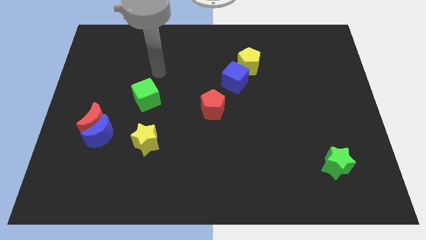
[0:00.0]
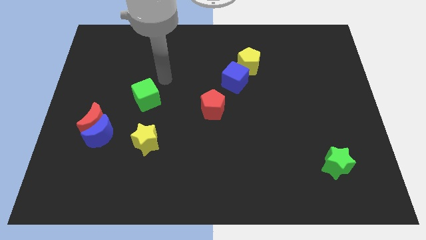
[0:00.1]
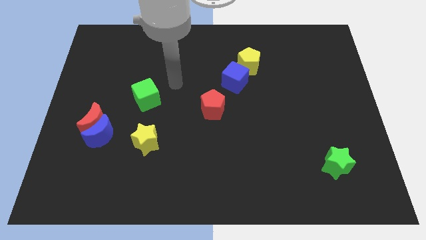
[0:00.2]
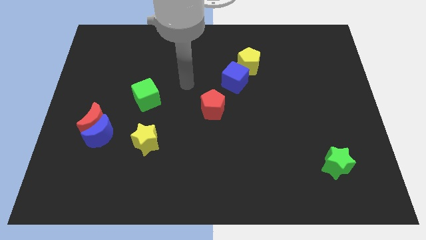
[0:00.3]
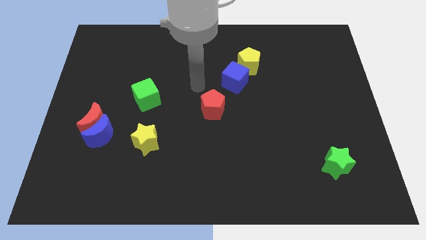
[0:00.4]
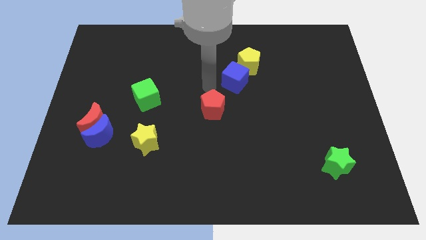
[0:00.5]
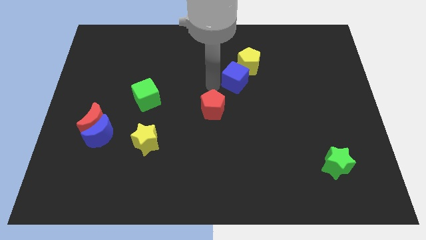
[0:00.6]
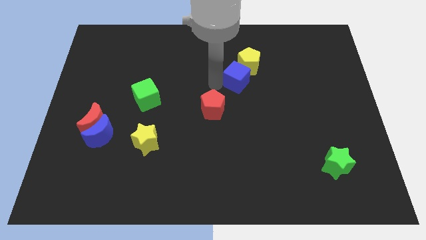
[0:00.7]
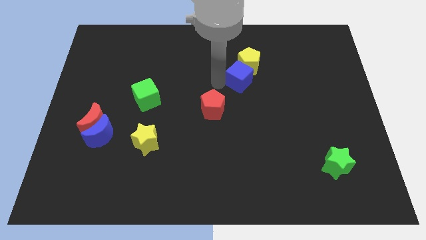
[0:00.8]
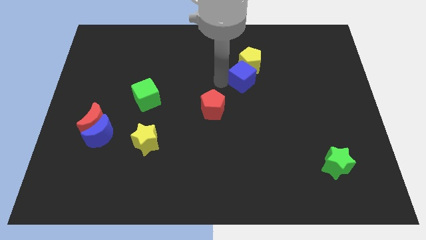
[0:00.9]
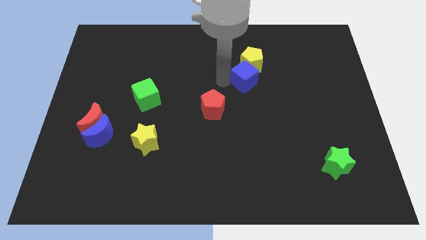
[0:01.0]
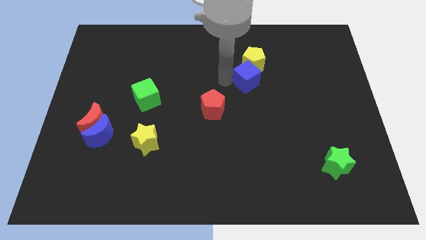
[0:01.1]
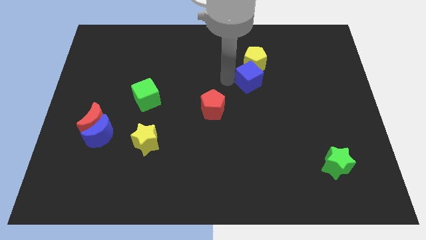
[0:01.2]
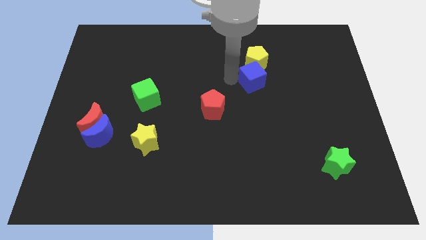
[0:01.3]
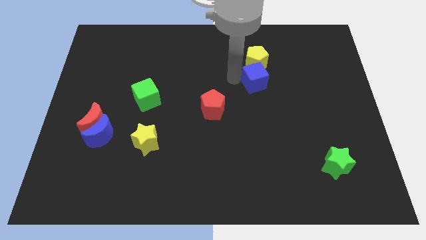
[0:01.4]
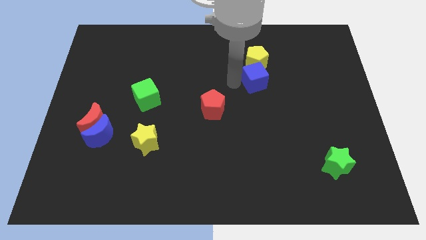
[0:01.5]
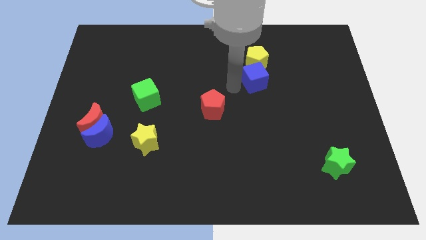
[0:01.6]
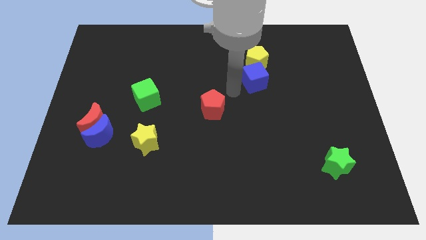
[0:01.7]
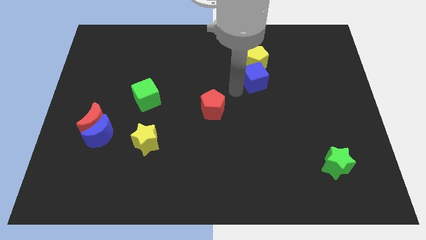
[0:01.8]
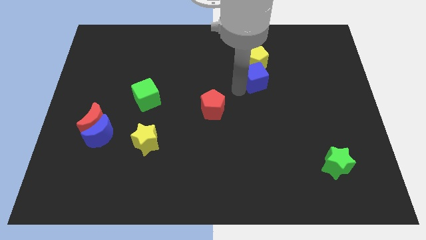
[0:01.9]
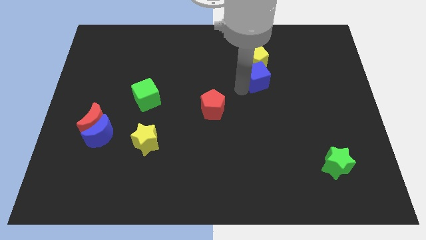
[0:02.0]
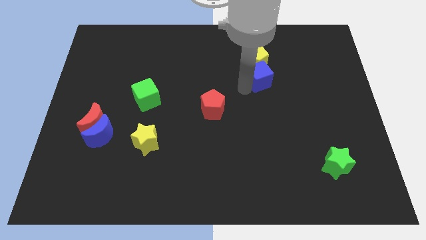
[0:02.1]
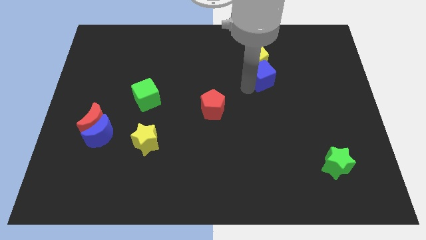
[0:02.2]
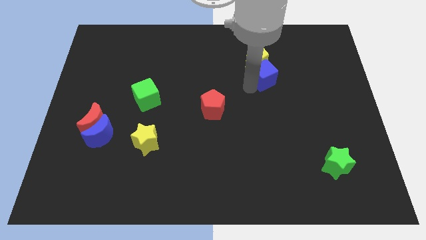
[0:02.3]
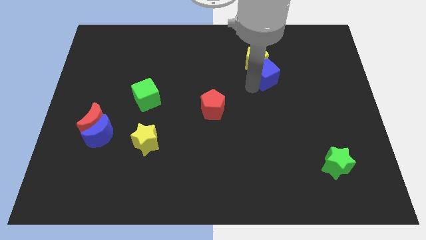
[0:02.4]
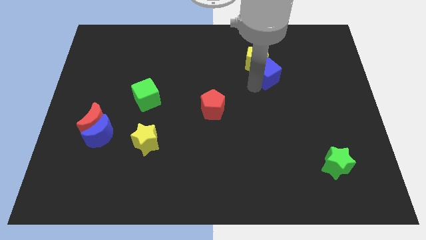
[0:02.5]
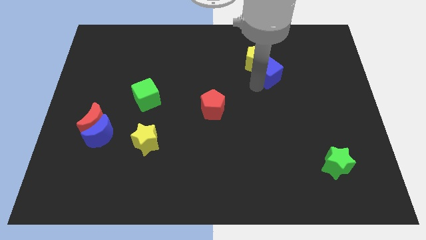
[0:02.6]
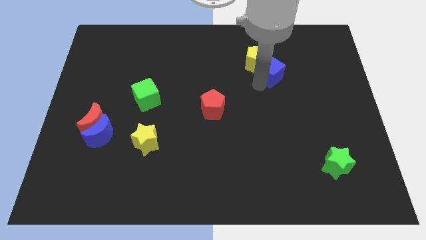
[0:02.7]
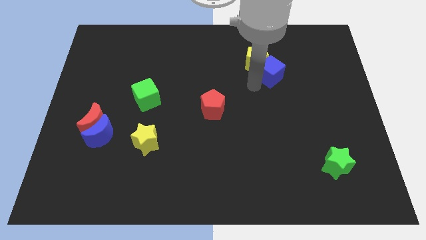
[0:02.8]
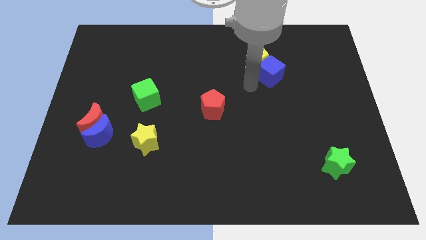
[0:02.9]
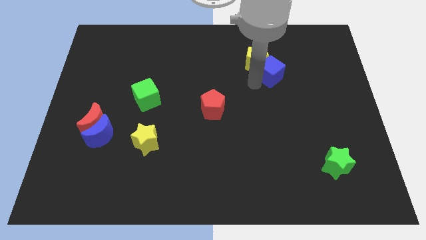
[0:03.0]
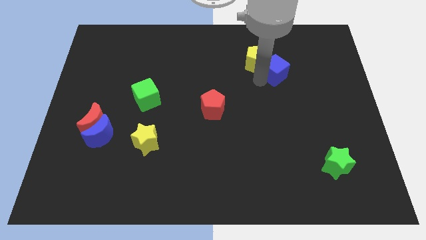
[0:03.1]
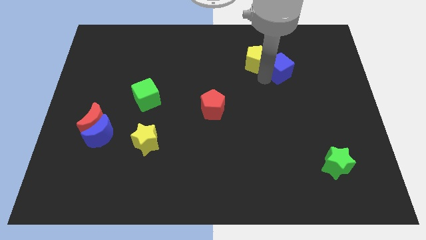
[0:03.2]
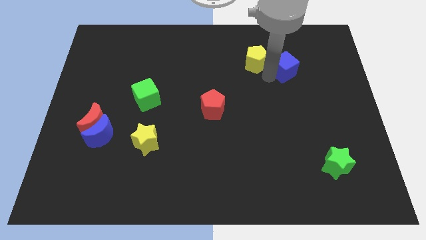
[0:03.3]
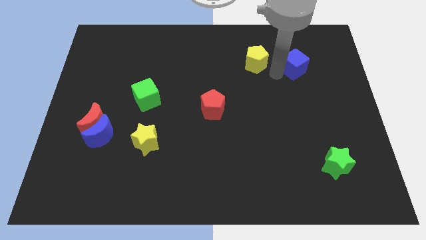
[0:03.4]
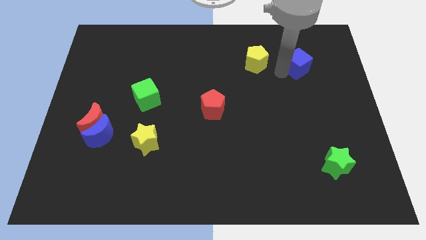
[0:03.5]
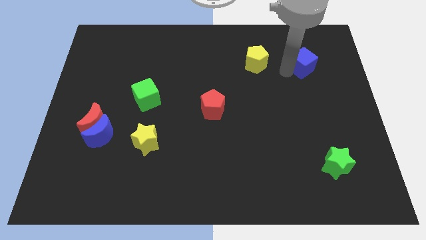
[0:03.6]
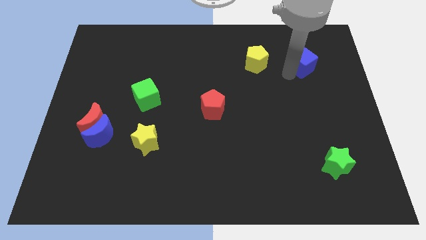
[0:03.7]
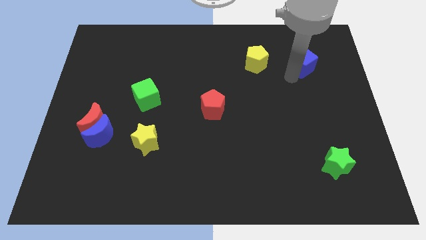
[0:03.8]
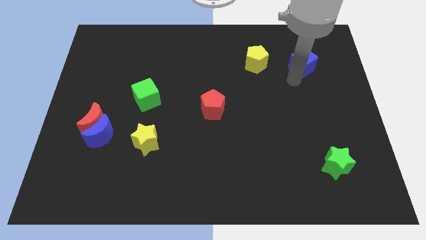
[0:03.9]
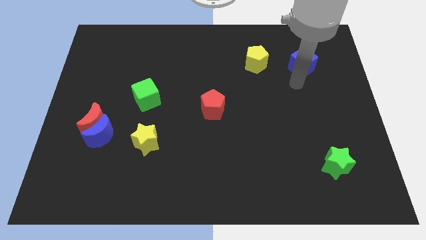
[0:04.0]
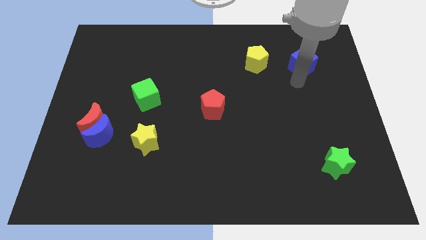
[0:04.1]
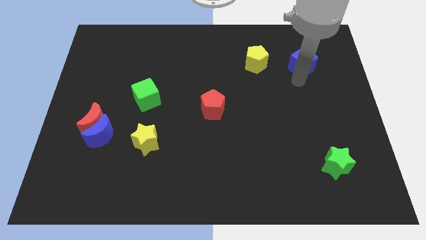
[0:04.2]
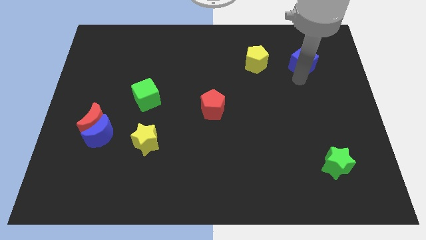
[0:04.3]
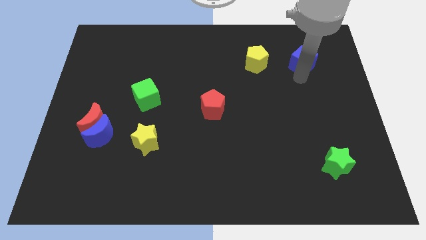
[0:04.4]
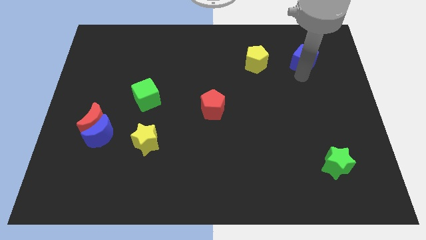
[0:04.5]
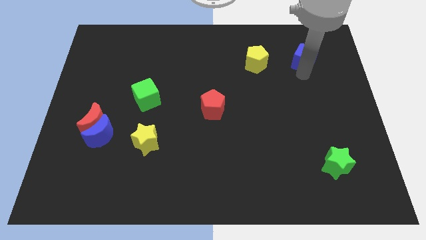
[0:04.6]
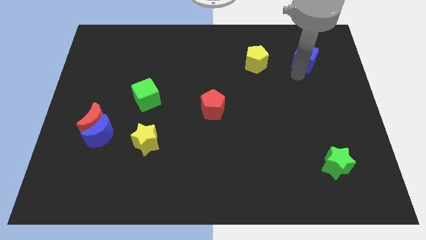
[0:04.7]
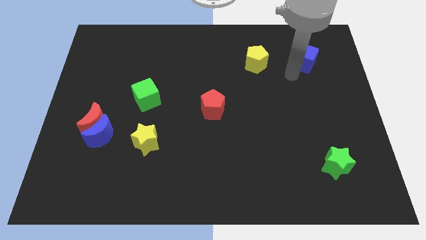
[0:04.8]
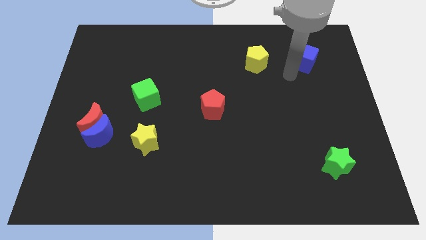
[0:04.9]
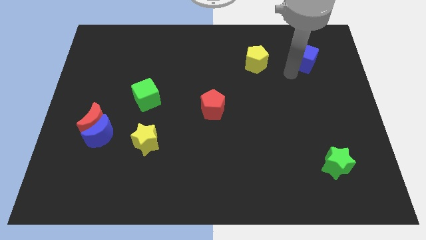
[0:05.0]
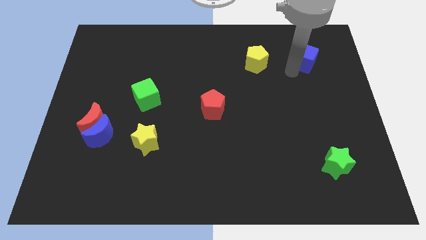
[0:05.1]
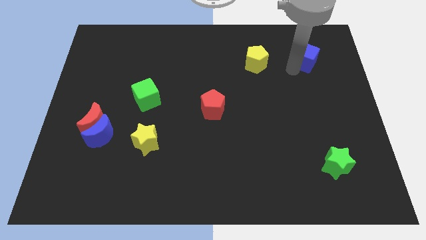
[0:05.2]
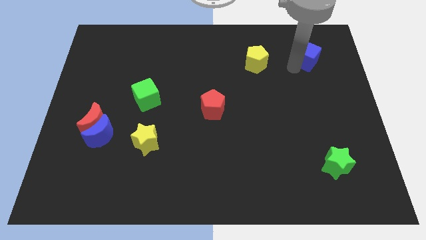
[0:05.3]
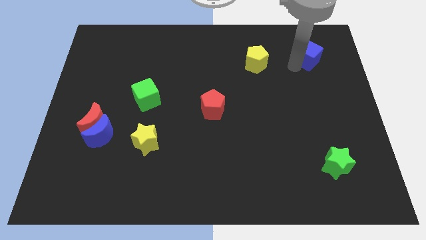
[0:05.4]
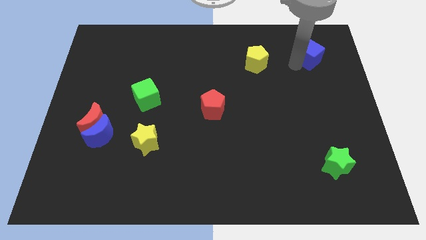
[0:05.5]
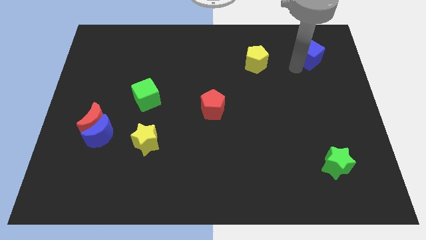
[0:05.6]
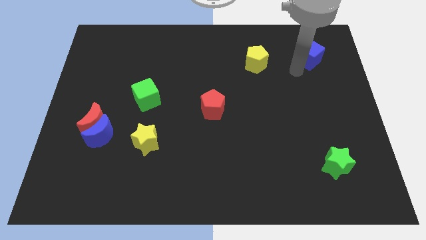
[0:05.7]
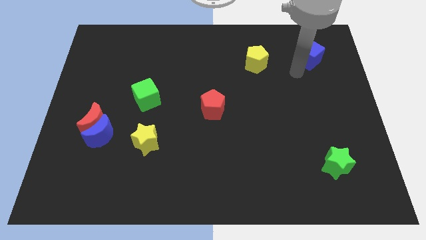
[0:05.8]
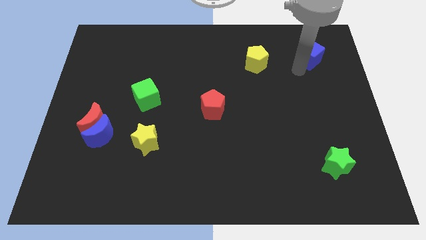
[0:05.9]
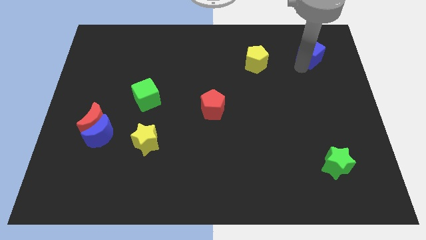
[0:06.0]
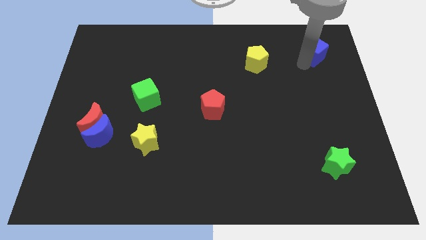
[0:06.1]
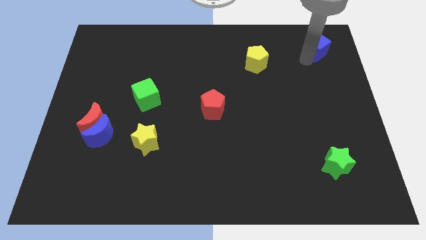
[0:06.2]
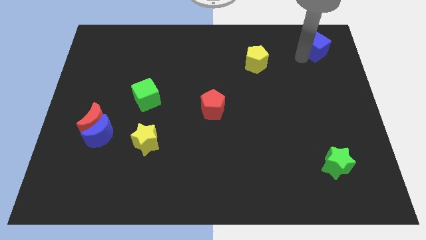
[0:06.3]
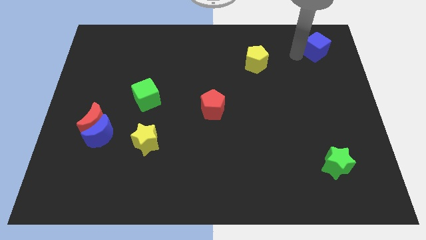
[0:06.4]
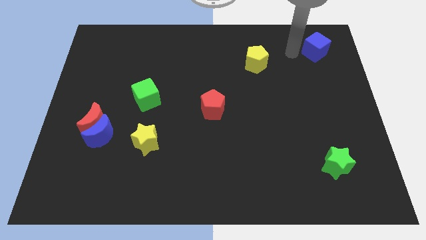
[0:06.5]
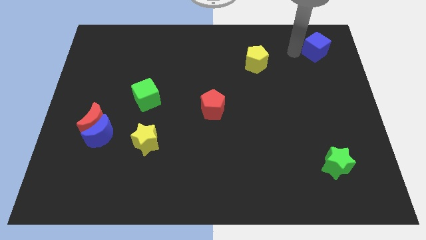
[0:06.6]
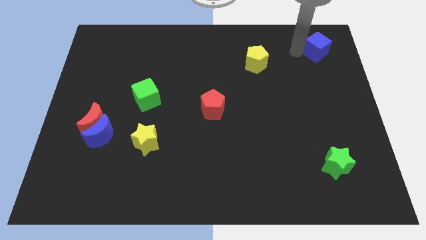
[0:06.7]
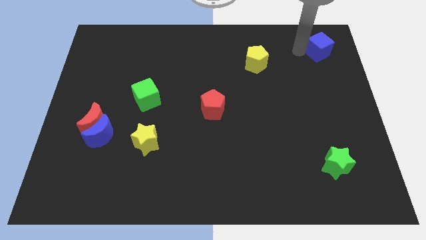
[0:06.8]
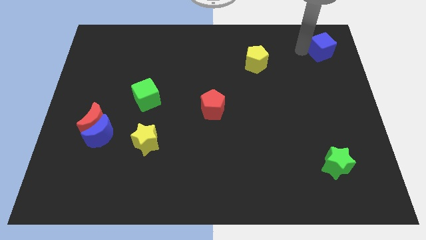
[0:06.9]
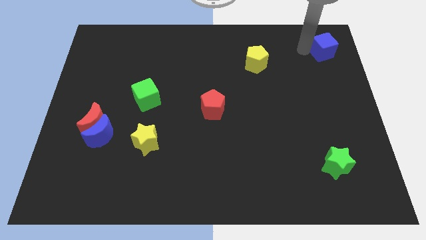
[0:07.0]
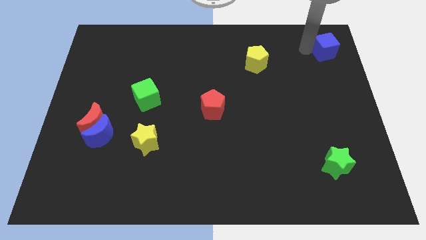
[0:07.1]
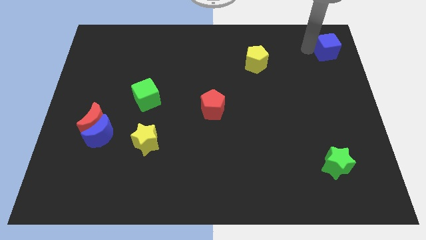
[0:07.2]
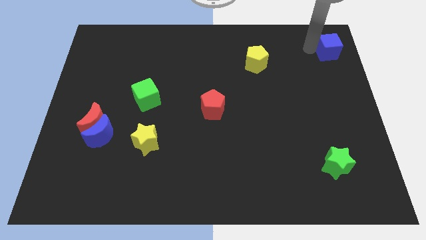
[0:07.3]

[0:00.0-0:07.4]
push the blue cube to the top right of the board
